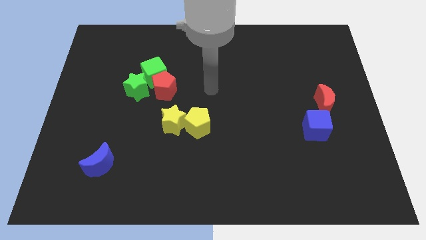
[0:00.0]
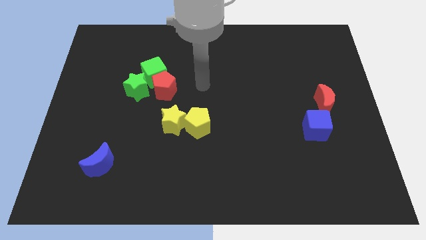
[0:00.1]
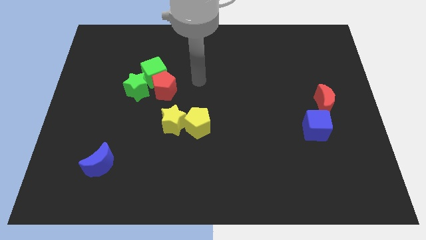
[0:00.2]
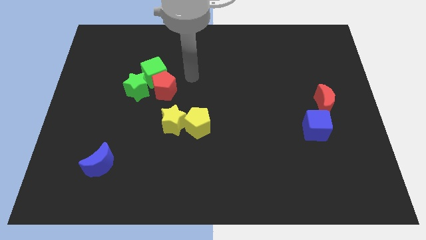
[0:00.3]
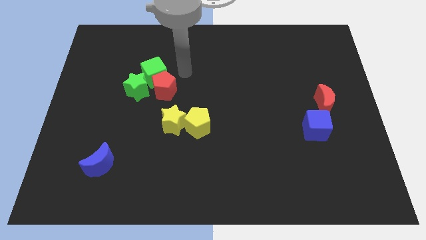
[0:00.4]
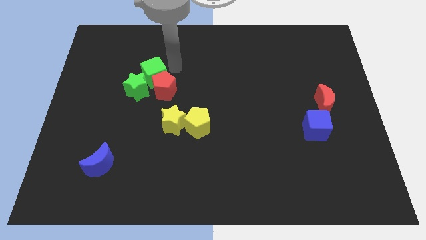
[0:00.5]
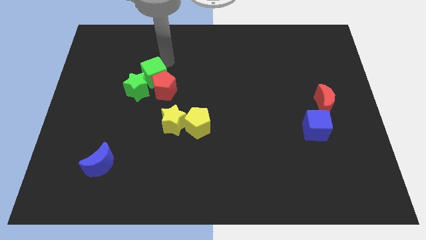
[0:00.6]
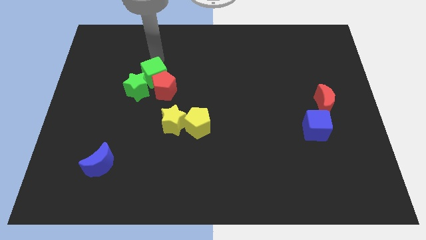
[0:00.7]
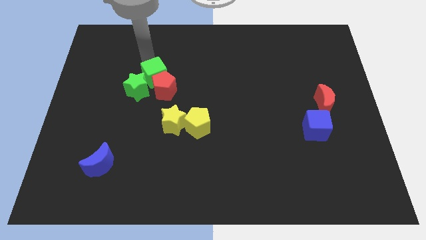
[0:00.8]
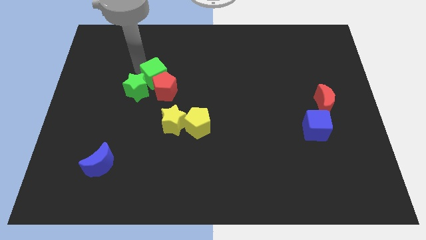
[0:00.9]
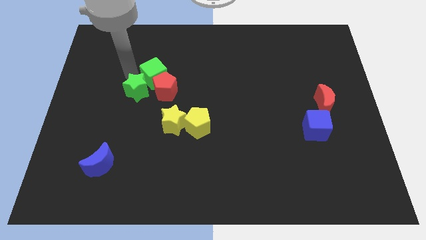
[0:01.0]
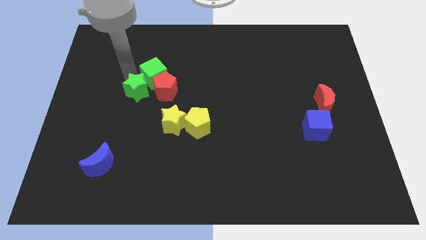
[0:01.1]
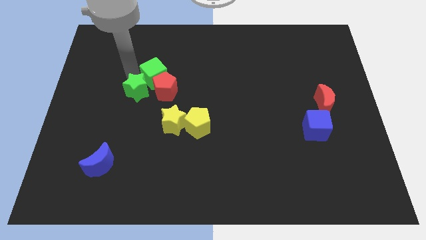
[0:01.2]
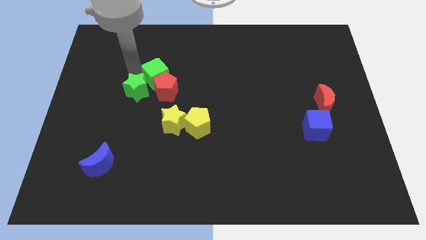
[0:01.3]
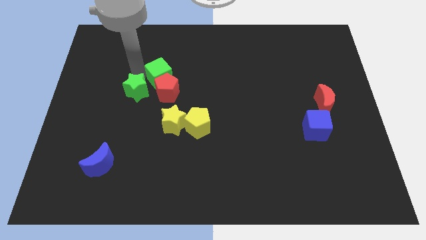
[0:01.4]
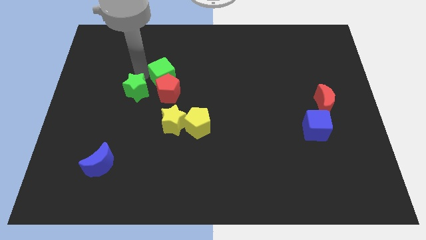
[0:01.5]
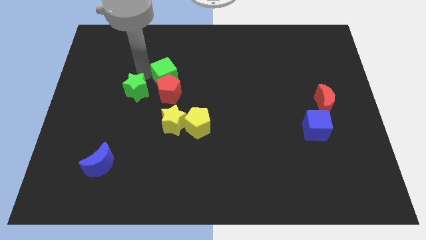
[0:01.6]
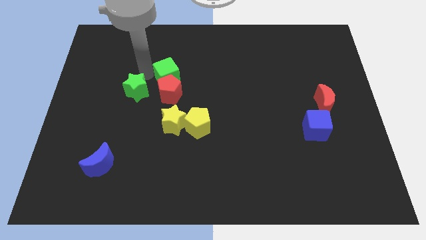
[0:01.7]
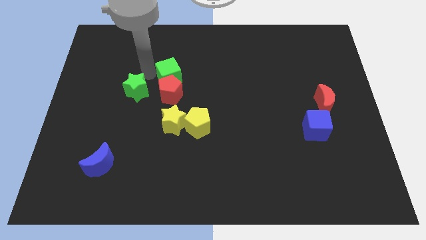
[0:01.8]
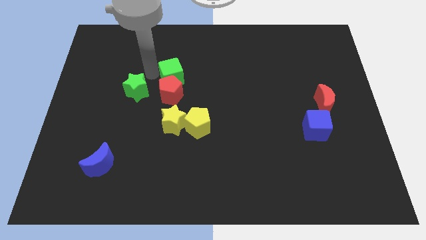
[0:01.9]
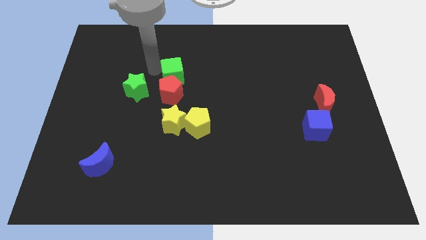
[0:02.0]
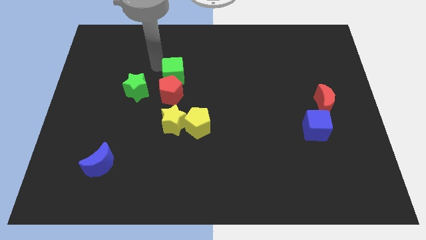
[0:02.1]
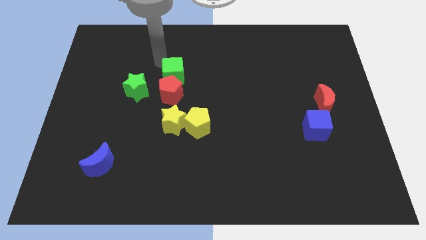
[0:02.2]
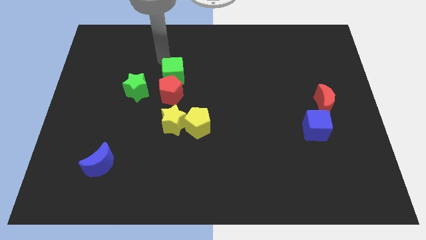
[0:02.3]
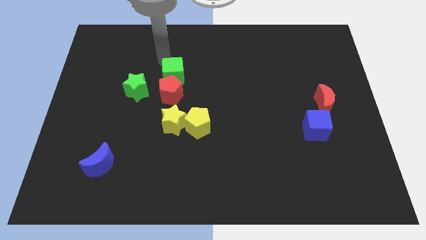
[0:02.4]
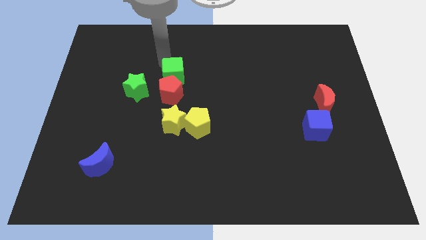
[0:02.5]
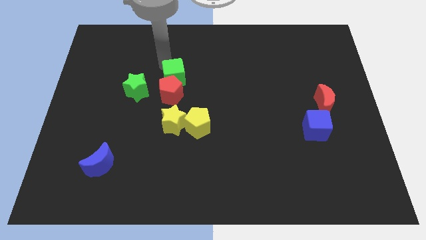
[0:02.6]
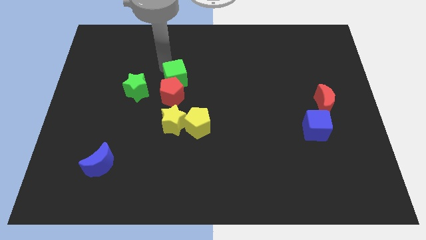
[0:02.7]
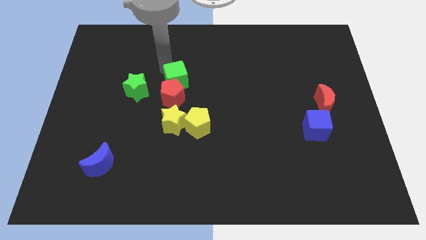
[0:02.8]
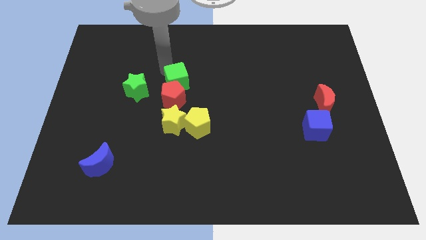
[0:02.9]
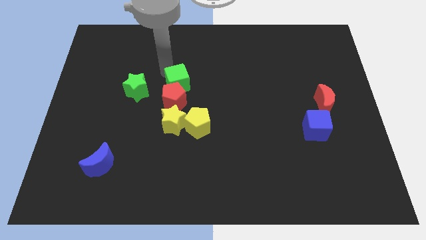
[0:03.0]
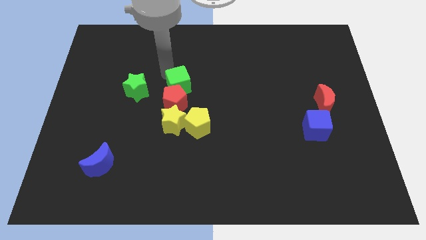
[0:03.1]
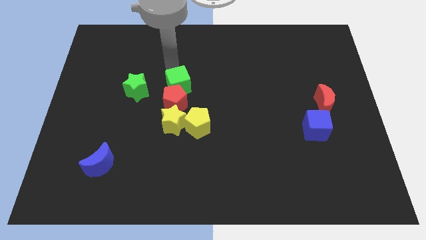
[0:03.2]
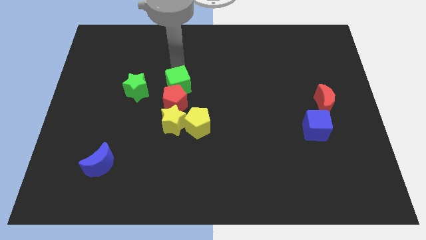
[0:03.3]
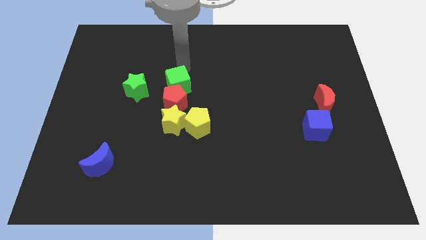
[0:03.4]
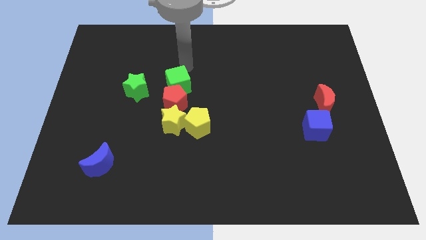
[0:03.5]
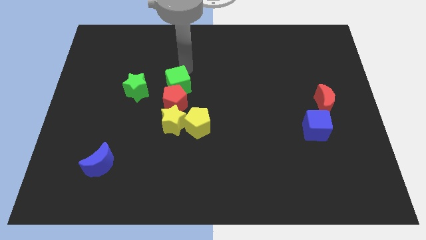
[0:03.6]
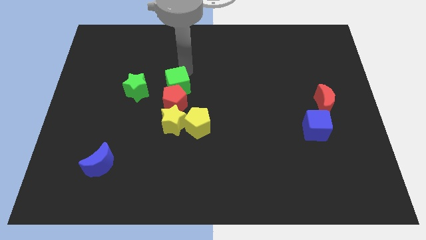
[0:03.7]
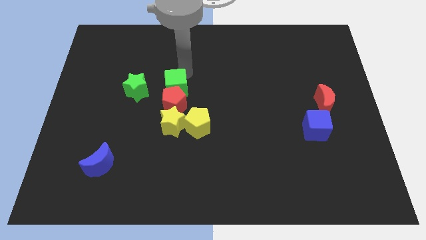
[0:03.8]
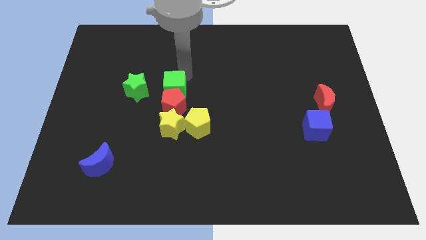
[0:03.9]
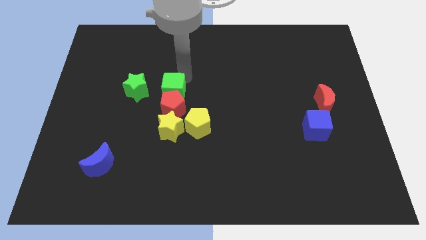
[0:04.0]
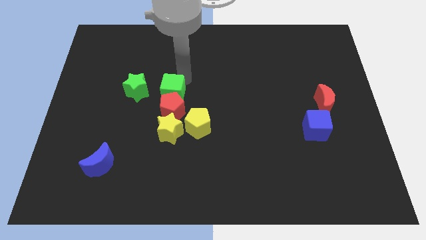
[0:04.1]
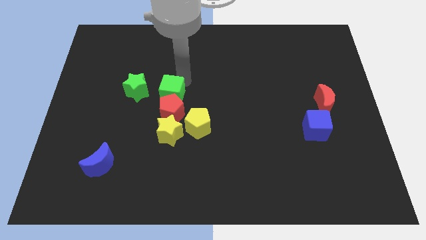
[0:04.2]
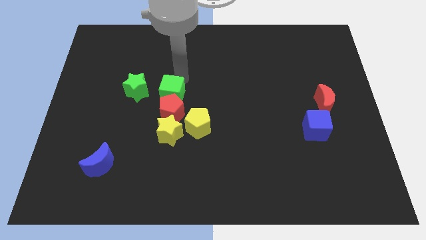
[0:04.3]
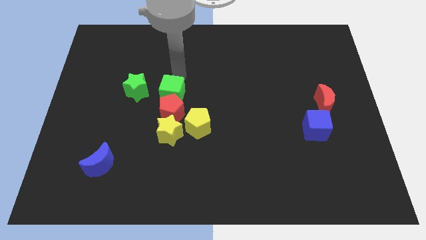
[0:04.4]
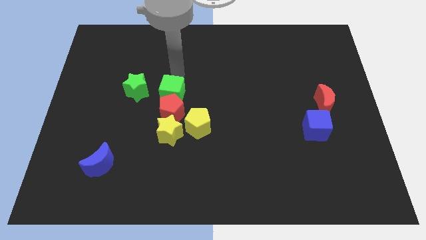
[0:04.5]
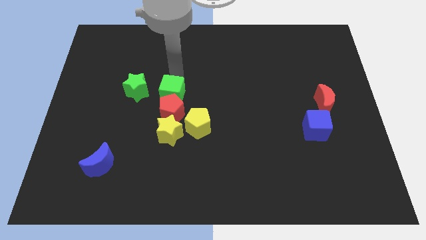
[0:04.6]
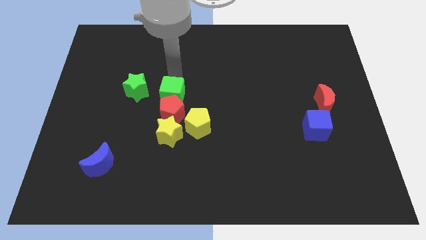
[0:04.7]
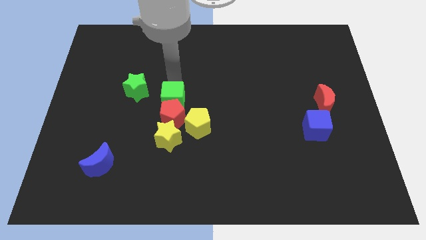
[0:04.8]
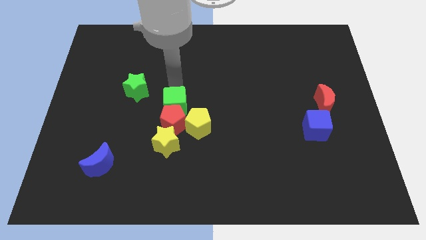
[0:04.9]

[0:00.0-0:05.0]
slightly slide the green cube downwards

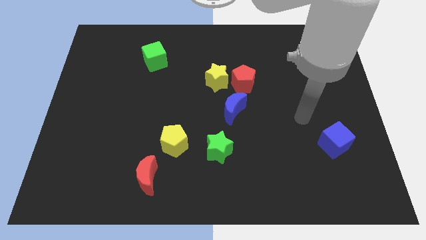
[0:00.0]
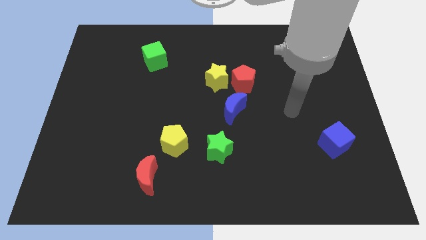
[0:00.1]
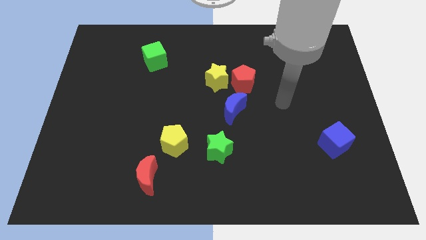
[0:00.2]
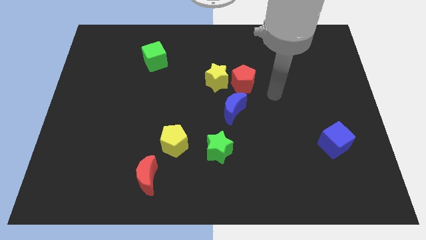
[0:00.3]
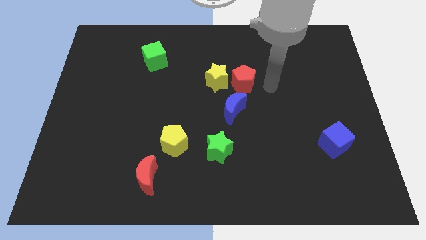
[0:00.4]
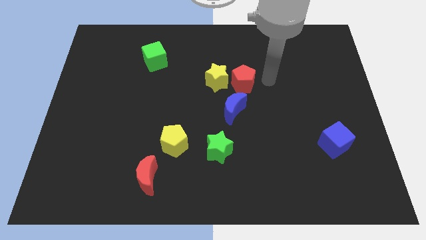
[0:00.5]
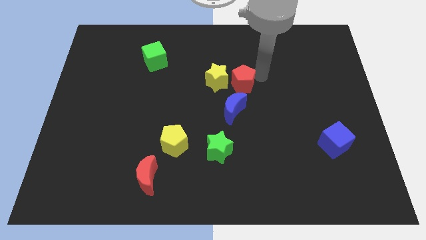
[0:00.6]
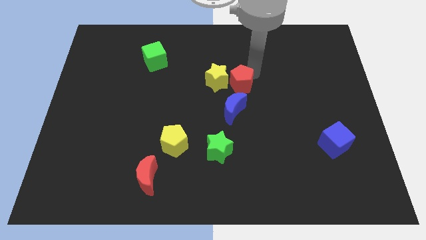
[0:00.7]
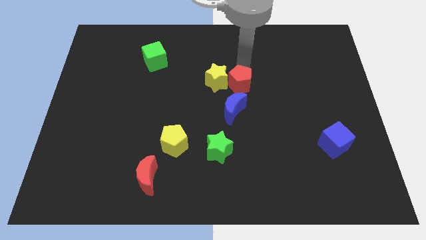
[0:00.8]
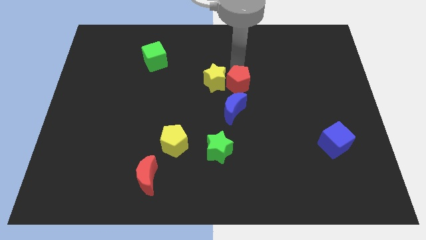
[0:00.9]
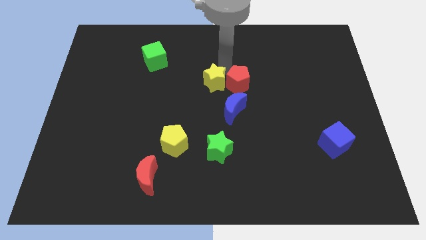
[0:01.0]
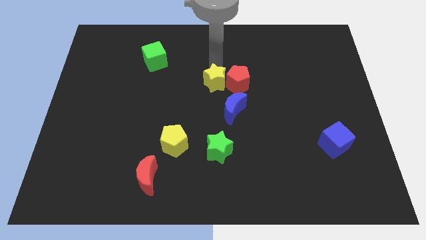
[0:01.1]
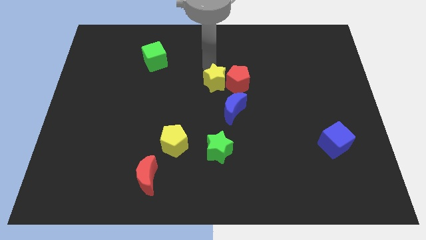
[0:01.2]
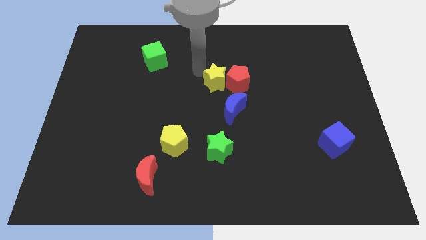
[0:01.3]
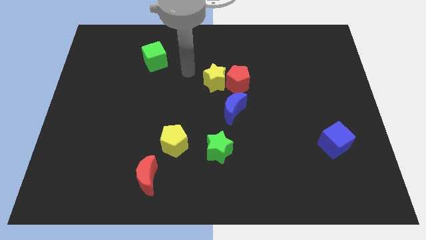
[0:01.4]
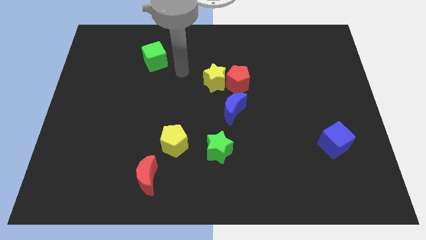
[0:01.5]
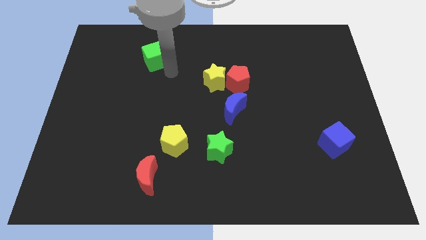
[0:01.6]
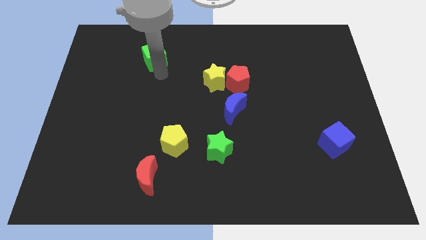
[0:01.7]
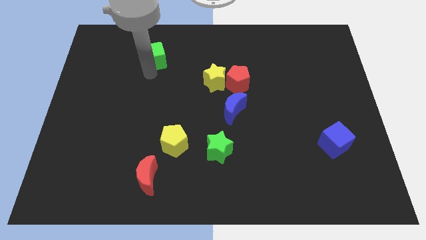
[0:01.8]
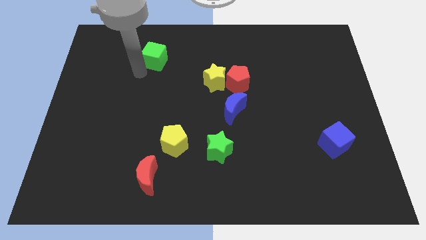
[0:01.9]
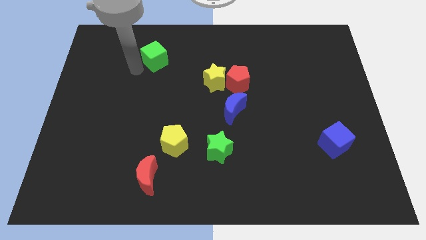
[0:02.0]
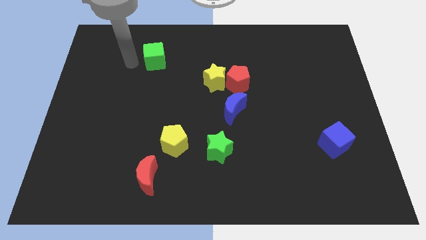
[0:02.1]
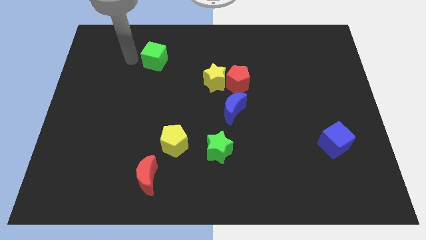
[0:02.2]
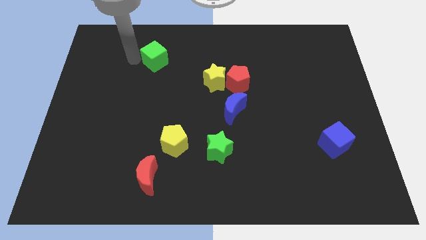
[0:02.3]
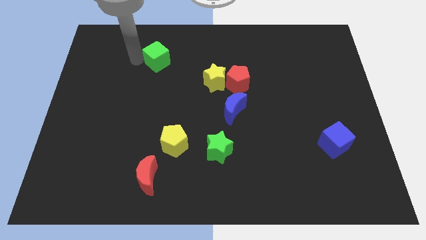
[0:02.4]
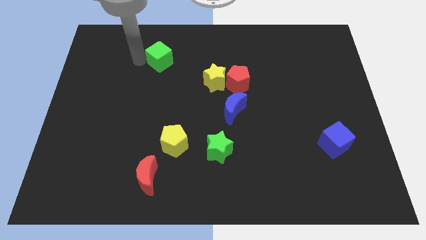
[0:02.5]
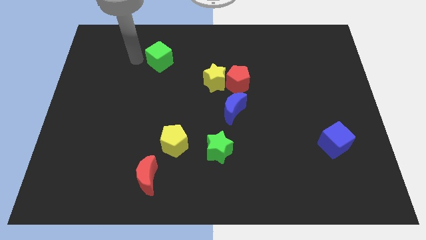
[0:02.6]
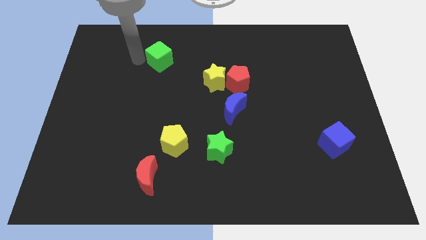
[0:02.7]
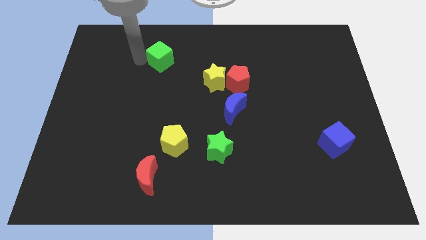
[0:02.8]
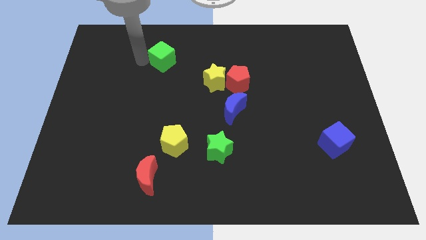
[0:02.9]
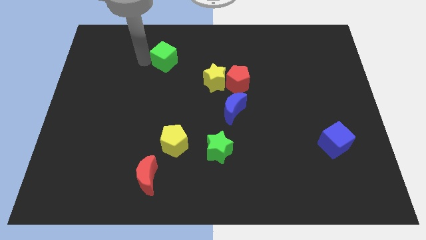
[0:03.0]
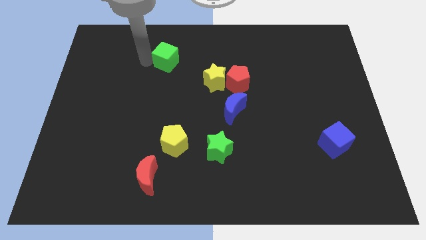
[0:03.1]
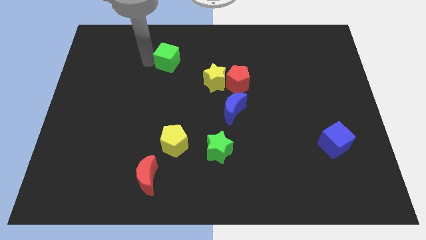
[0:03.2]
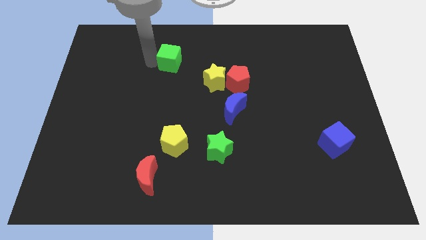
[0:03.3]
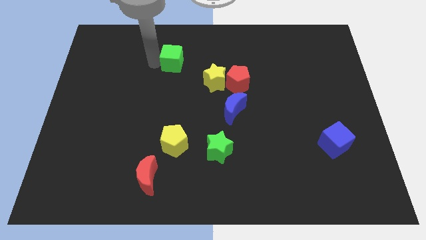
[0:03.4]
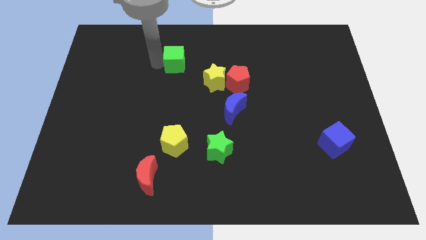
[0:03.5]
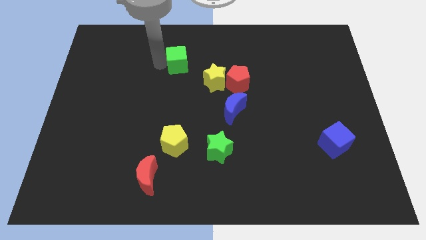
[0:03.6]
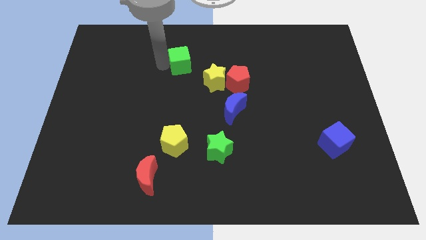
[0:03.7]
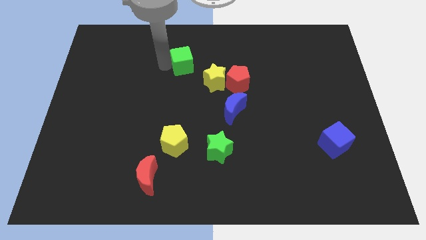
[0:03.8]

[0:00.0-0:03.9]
move the green cube to the right slightly
